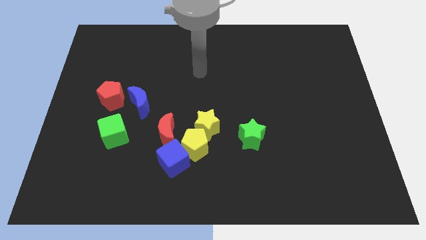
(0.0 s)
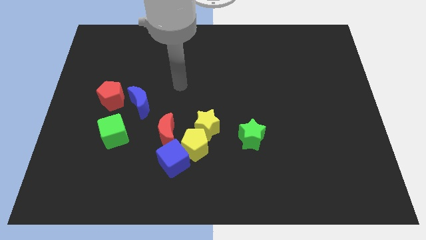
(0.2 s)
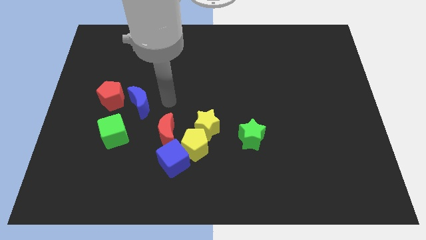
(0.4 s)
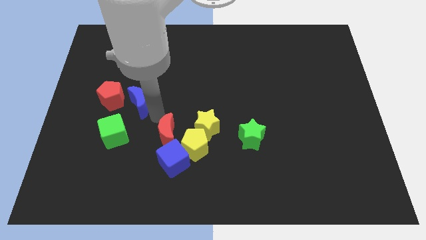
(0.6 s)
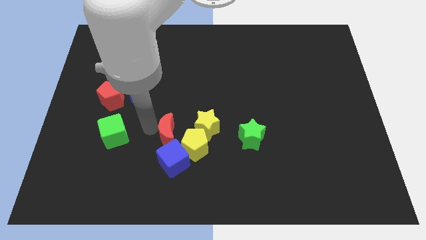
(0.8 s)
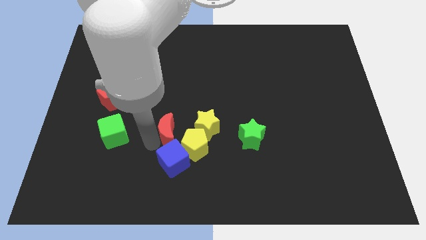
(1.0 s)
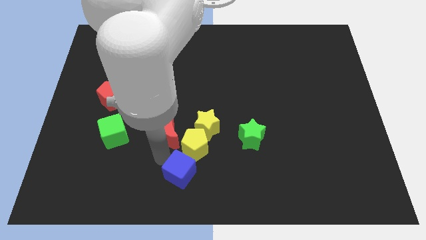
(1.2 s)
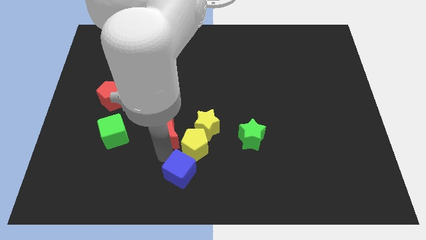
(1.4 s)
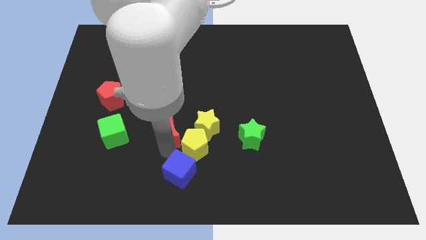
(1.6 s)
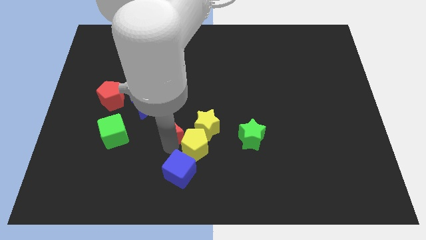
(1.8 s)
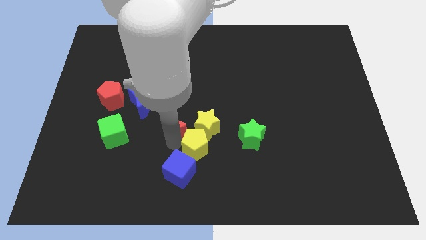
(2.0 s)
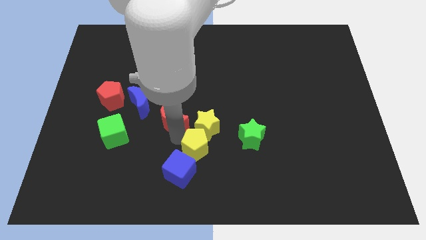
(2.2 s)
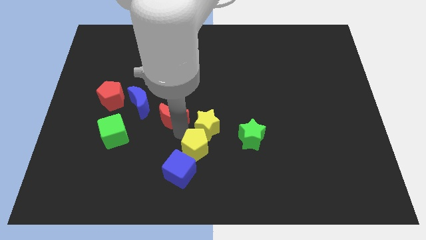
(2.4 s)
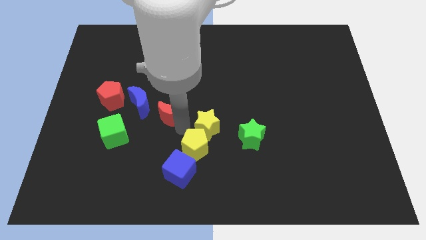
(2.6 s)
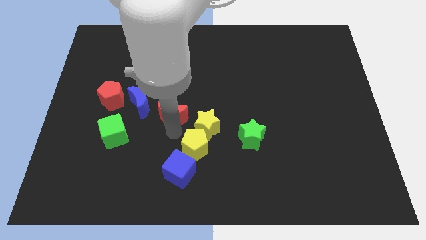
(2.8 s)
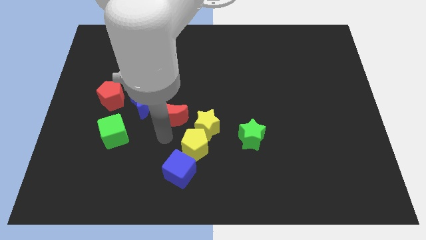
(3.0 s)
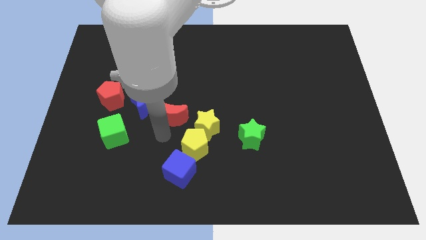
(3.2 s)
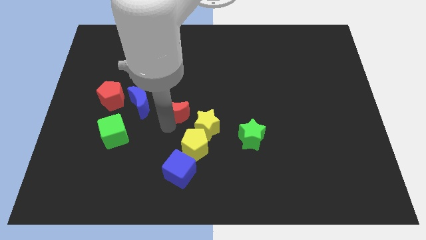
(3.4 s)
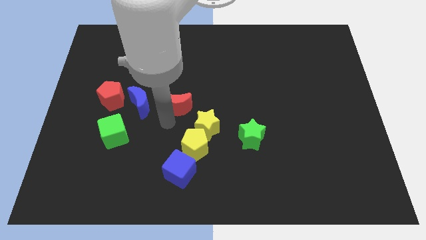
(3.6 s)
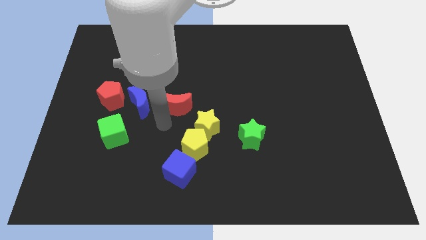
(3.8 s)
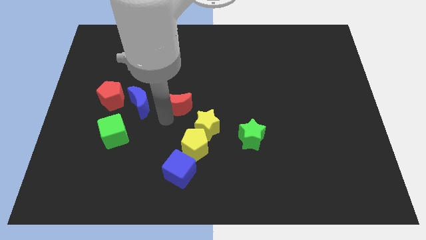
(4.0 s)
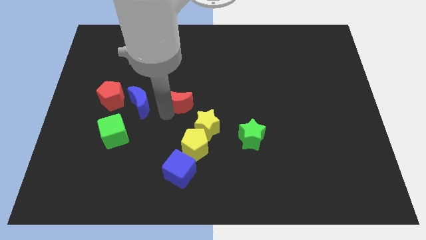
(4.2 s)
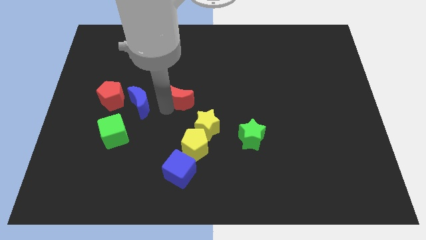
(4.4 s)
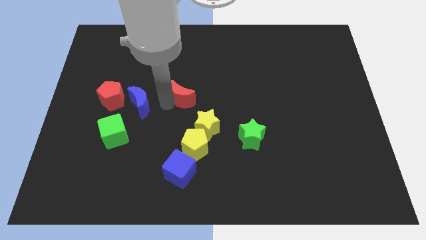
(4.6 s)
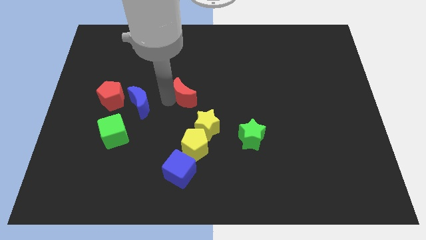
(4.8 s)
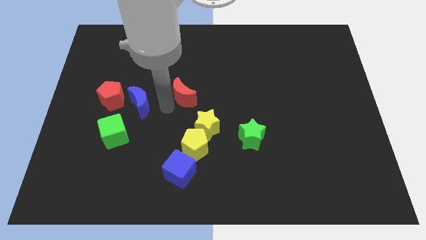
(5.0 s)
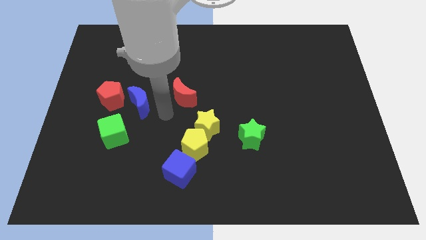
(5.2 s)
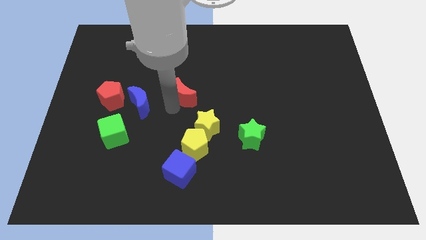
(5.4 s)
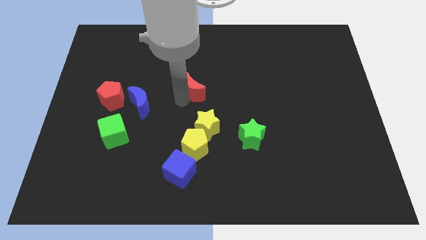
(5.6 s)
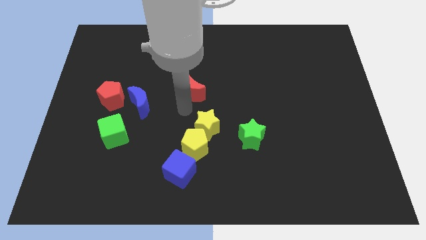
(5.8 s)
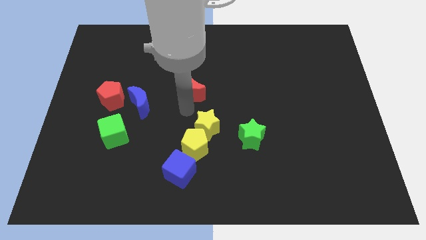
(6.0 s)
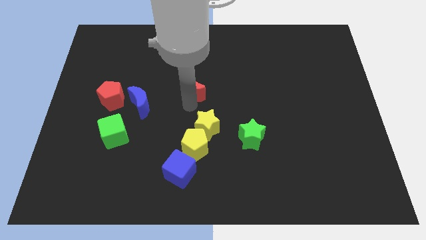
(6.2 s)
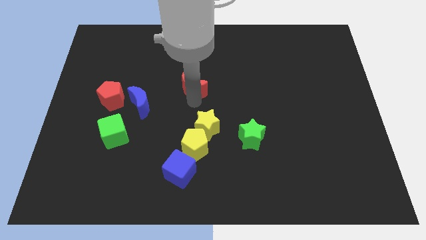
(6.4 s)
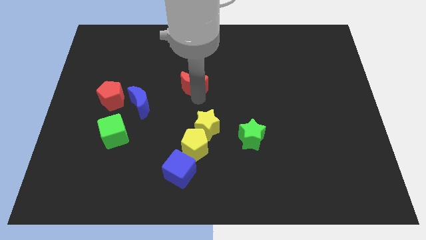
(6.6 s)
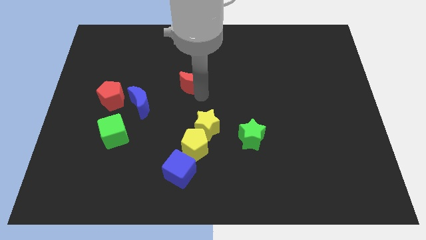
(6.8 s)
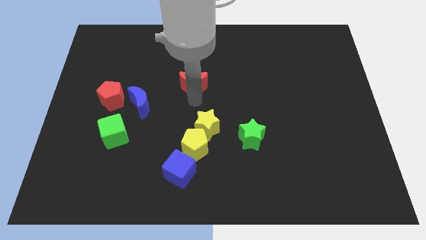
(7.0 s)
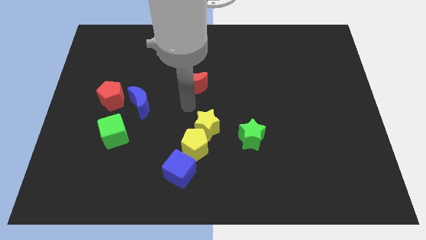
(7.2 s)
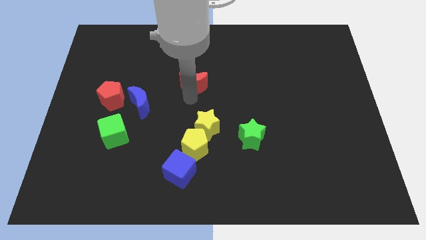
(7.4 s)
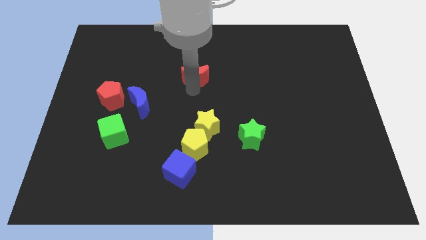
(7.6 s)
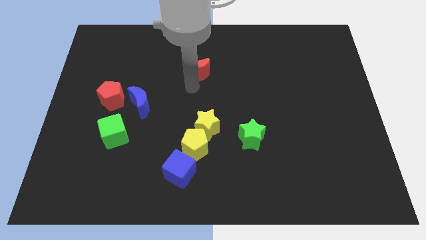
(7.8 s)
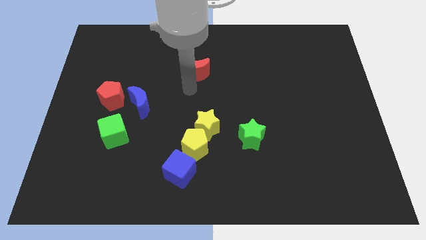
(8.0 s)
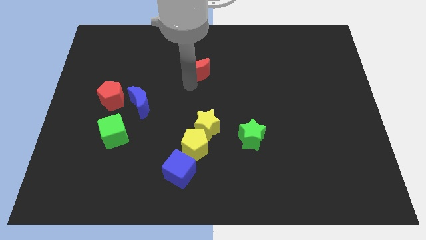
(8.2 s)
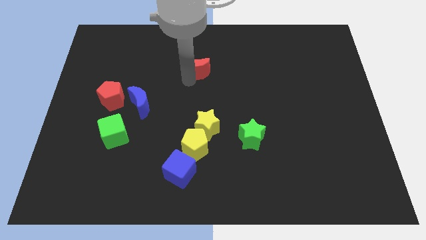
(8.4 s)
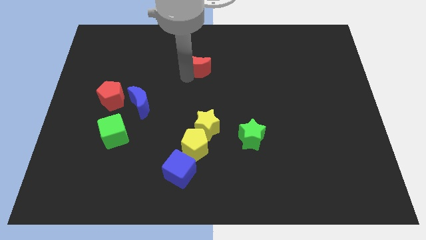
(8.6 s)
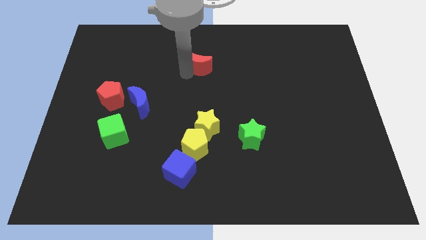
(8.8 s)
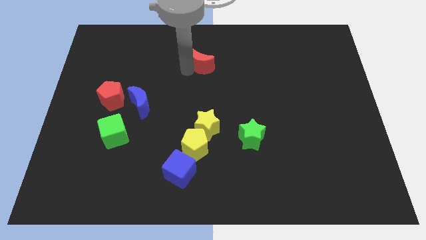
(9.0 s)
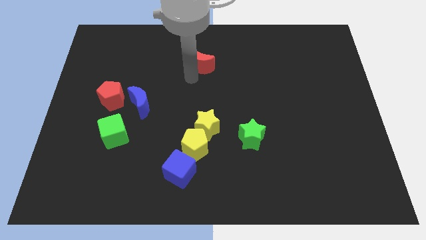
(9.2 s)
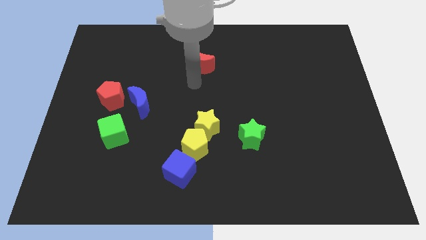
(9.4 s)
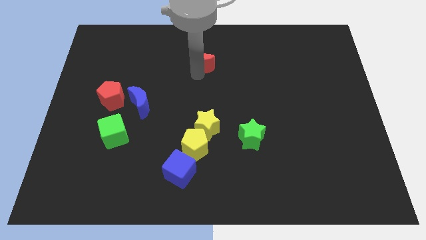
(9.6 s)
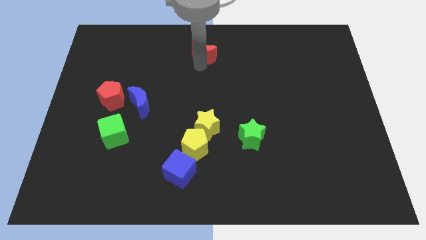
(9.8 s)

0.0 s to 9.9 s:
push the red moon to the top side

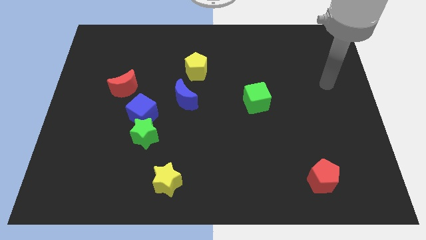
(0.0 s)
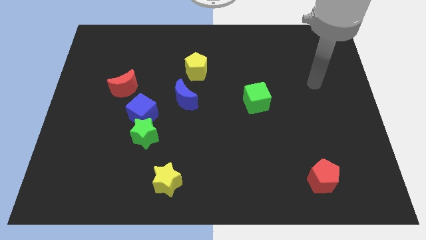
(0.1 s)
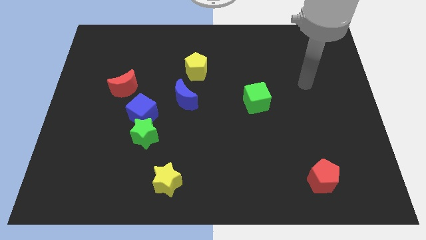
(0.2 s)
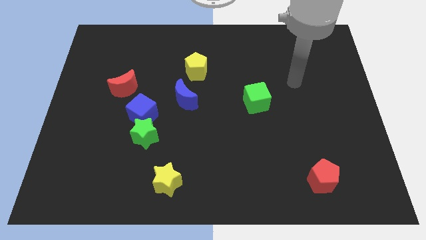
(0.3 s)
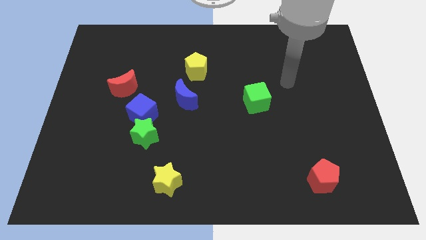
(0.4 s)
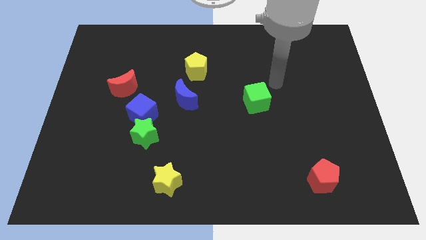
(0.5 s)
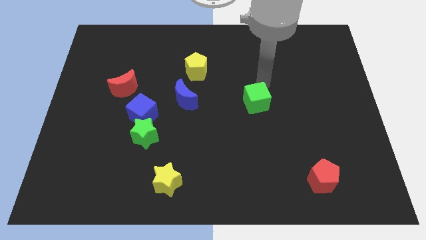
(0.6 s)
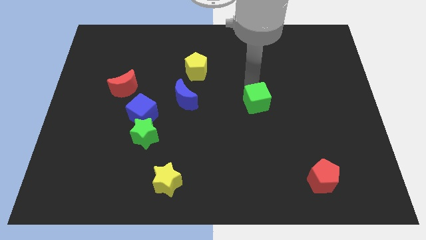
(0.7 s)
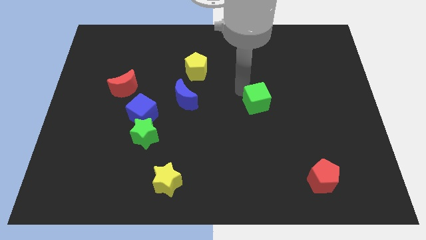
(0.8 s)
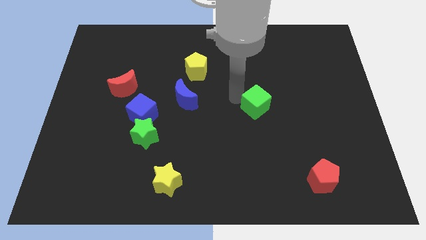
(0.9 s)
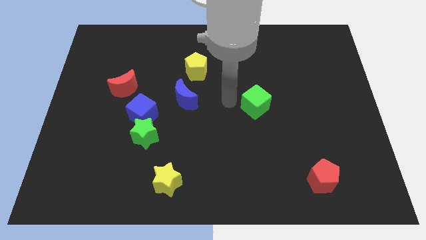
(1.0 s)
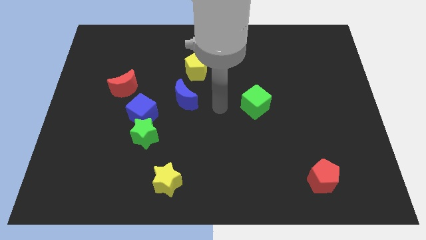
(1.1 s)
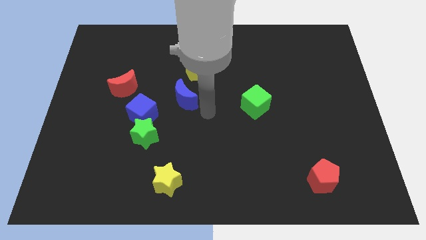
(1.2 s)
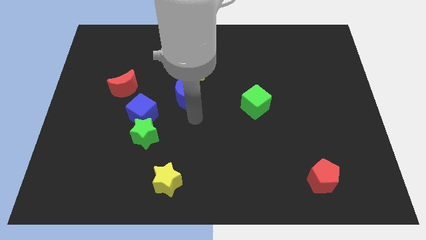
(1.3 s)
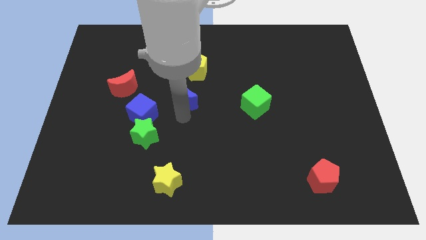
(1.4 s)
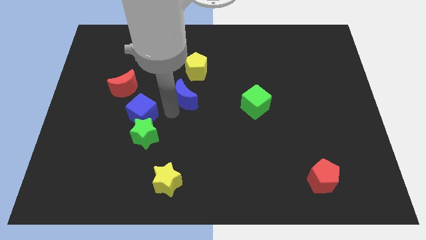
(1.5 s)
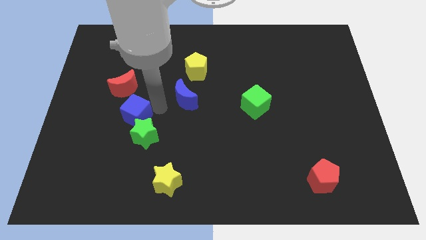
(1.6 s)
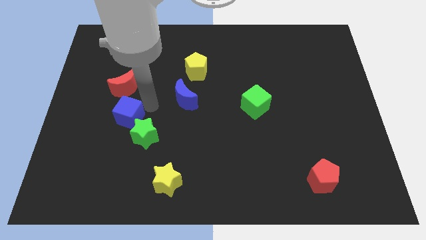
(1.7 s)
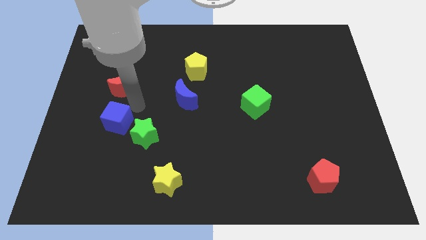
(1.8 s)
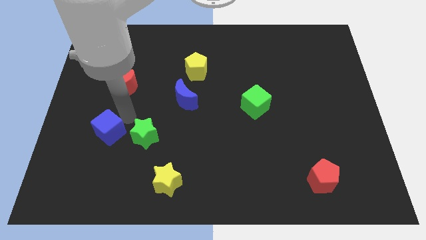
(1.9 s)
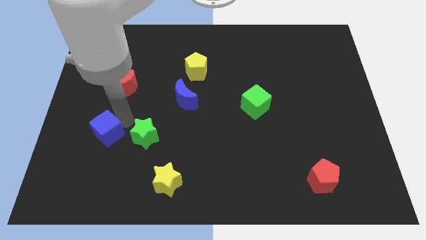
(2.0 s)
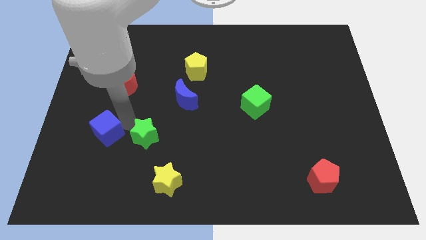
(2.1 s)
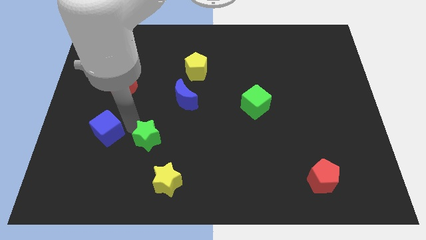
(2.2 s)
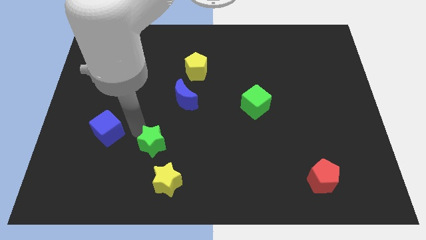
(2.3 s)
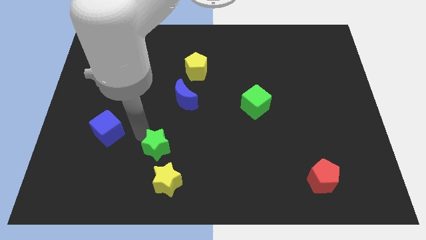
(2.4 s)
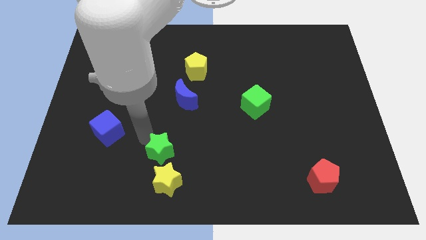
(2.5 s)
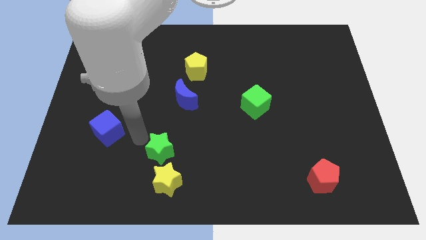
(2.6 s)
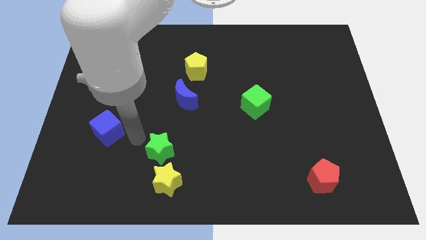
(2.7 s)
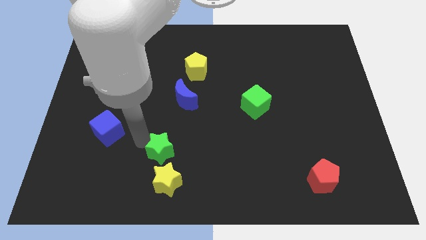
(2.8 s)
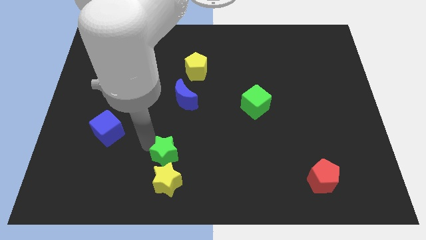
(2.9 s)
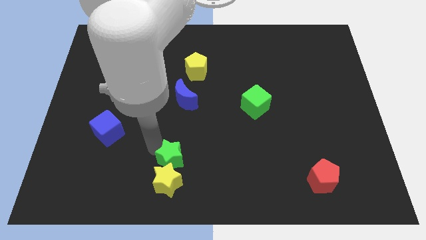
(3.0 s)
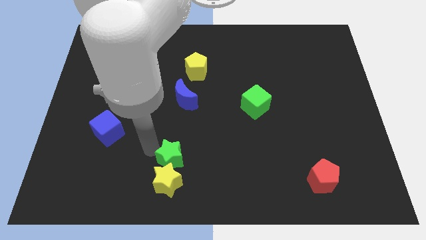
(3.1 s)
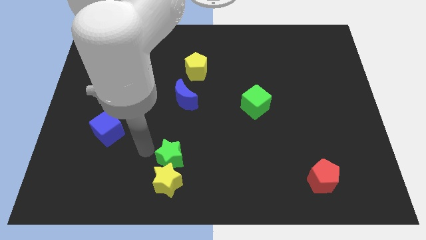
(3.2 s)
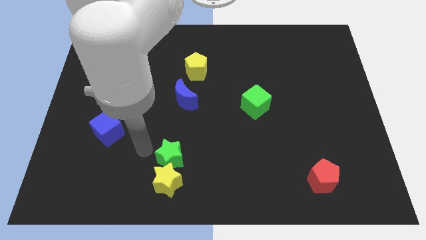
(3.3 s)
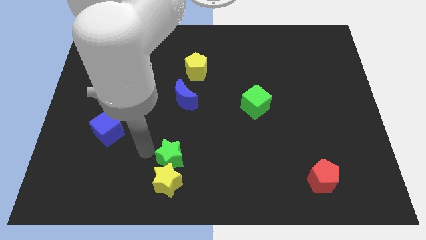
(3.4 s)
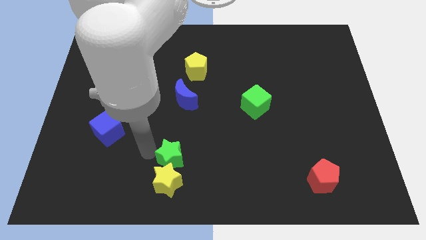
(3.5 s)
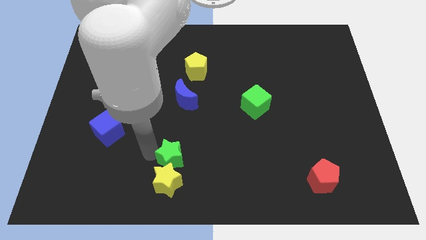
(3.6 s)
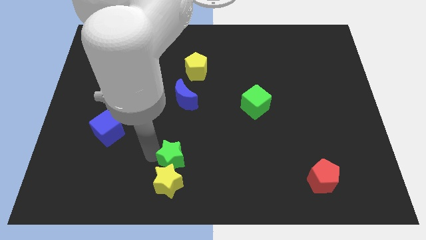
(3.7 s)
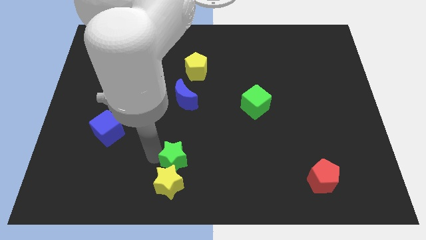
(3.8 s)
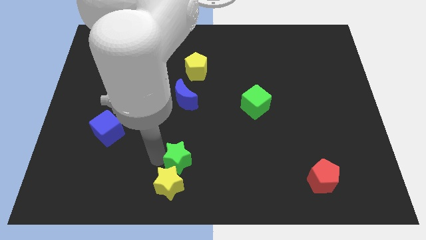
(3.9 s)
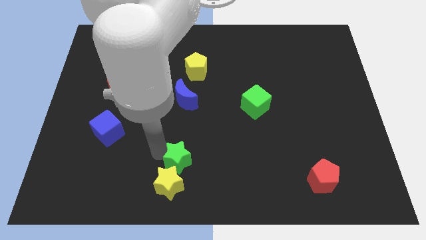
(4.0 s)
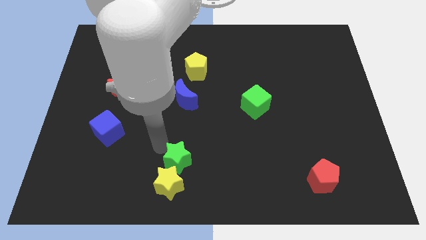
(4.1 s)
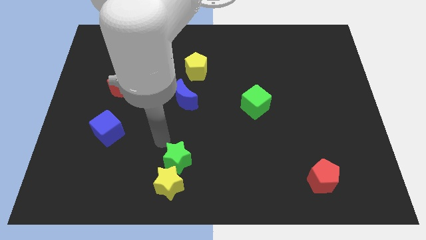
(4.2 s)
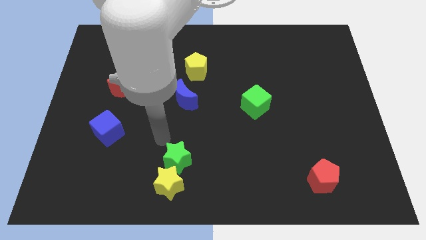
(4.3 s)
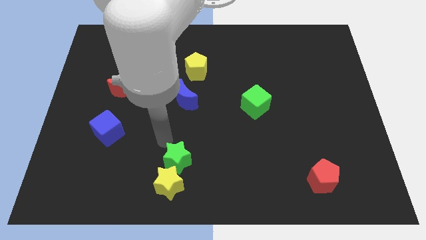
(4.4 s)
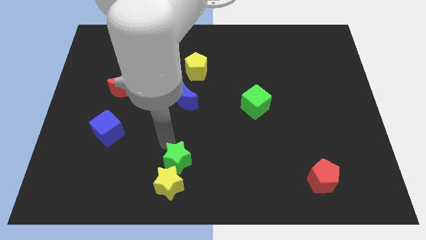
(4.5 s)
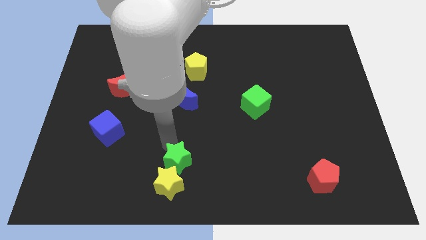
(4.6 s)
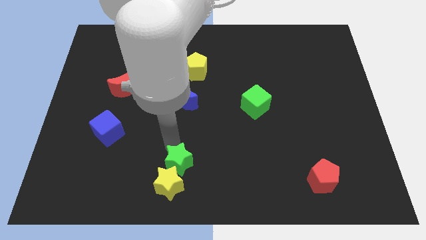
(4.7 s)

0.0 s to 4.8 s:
put the green star to the bottom
